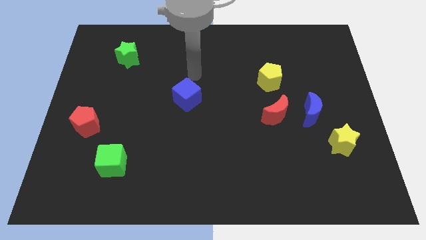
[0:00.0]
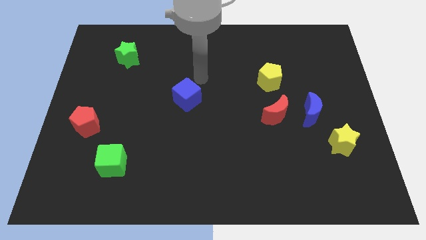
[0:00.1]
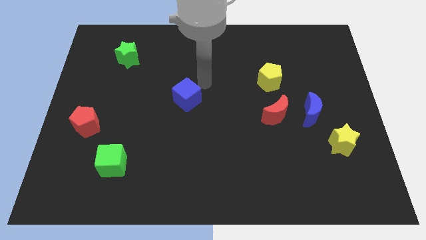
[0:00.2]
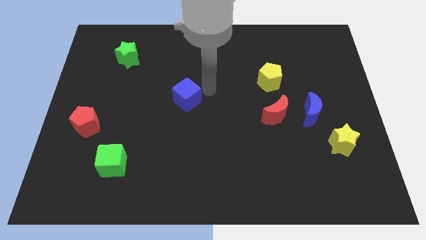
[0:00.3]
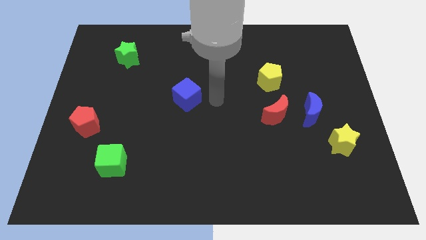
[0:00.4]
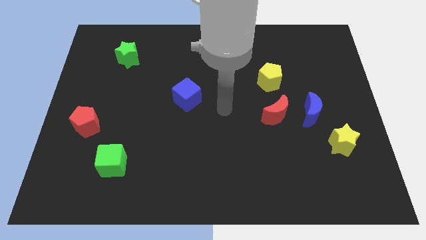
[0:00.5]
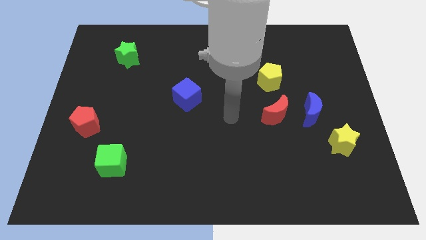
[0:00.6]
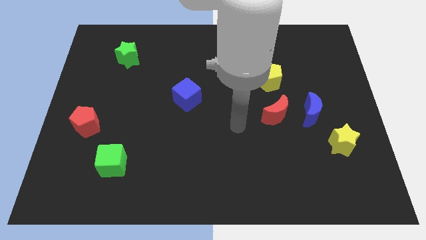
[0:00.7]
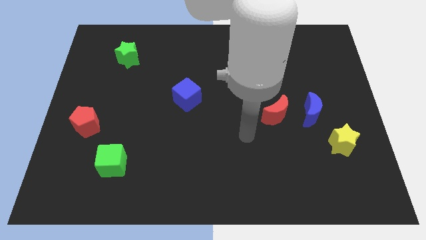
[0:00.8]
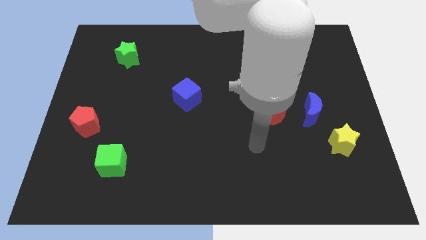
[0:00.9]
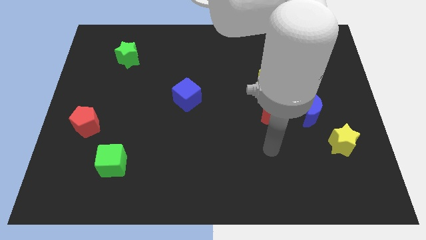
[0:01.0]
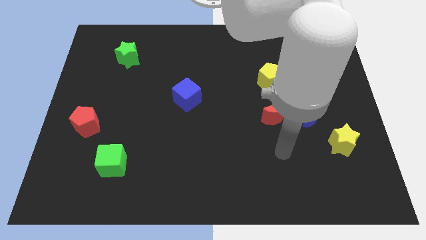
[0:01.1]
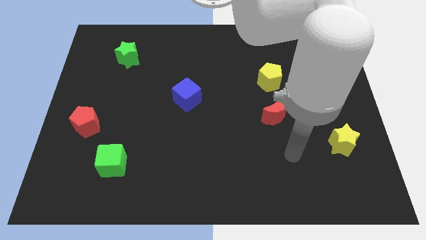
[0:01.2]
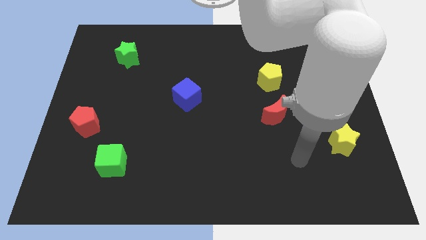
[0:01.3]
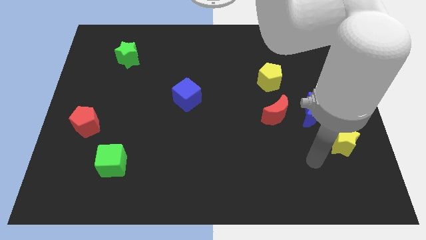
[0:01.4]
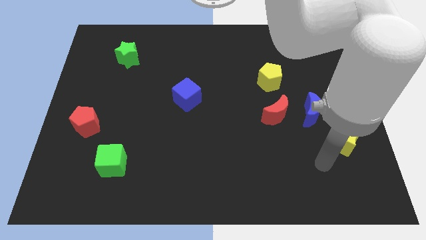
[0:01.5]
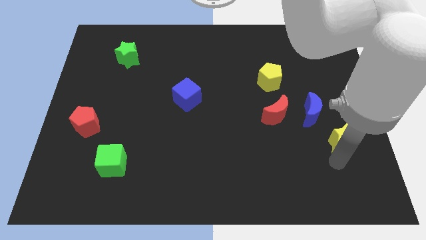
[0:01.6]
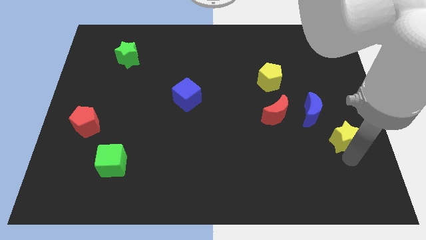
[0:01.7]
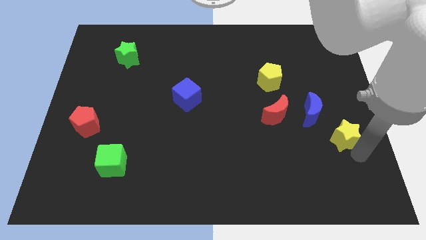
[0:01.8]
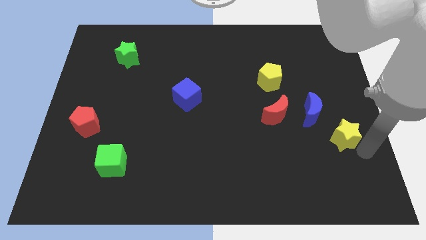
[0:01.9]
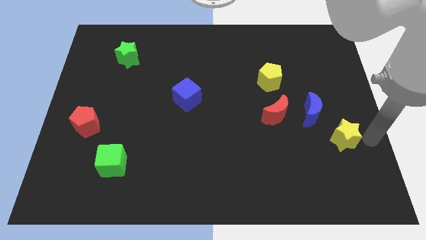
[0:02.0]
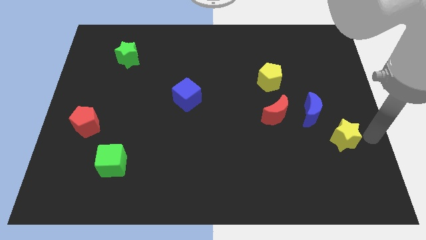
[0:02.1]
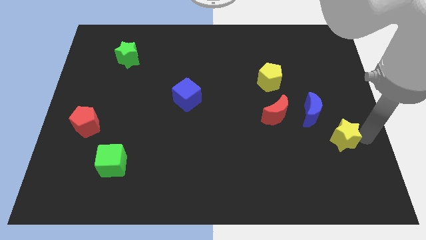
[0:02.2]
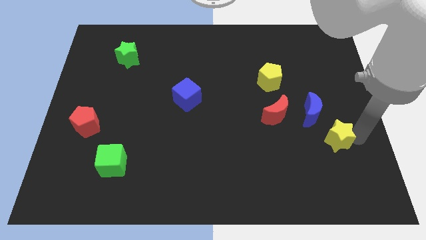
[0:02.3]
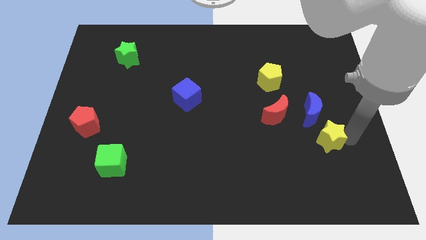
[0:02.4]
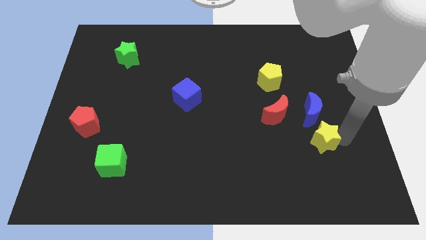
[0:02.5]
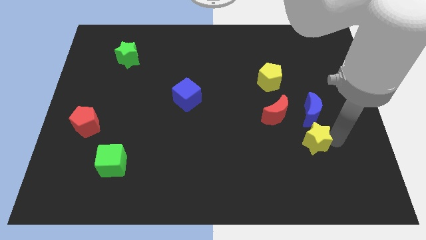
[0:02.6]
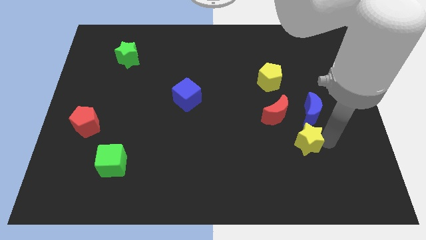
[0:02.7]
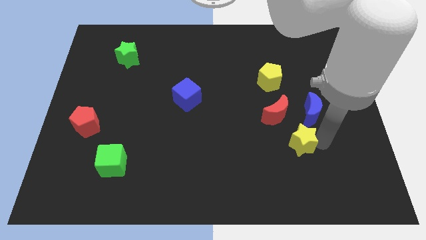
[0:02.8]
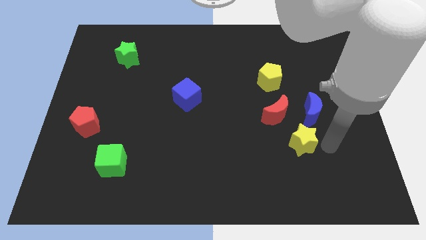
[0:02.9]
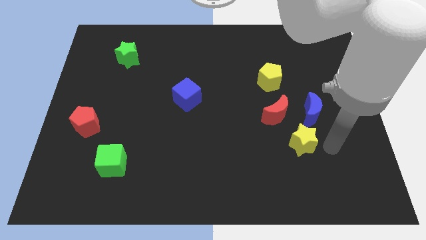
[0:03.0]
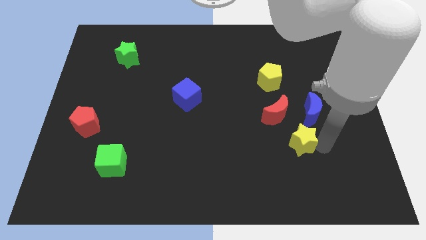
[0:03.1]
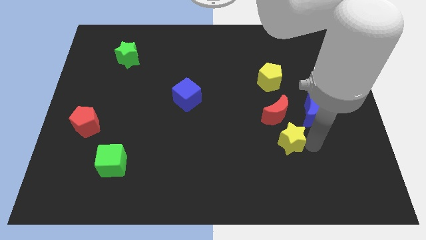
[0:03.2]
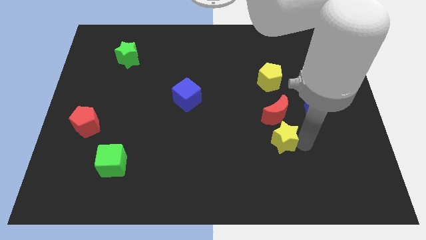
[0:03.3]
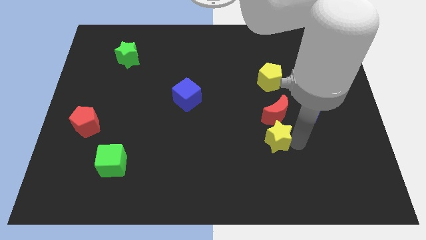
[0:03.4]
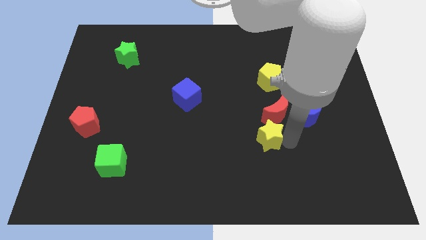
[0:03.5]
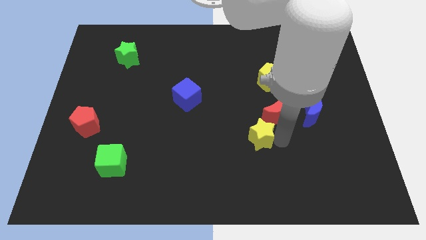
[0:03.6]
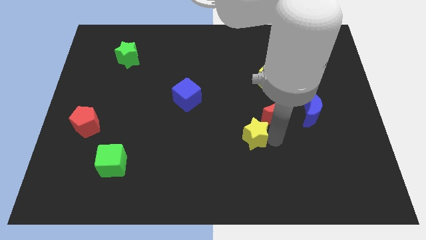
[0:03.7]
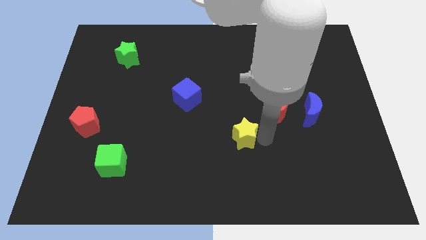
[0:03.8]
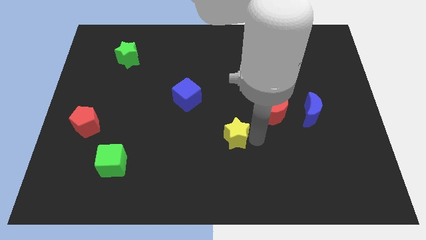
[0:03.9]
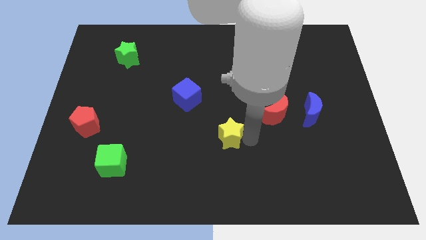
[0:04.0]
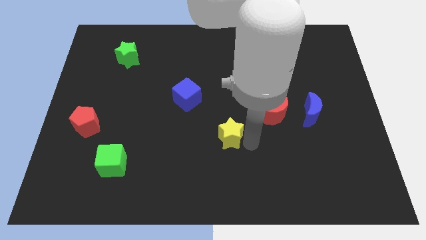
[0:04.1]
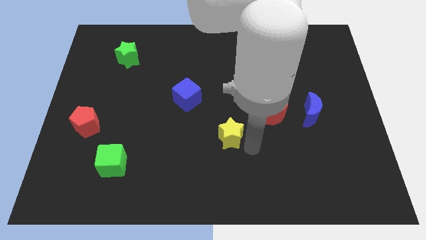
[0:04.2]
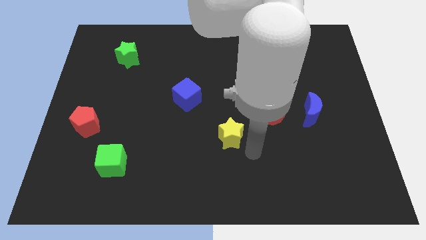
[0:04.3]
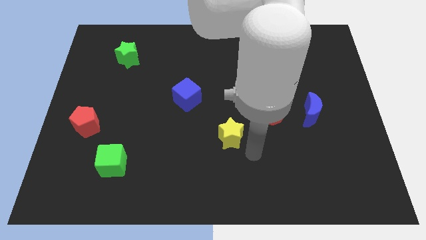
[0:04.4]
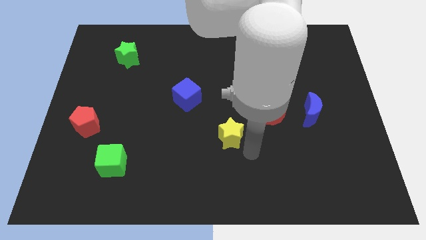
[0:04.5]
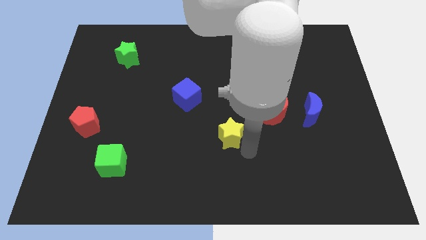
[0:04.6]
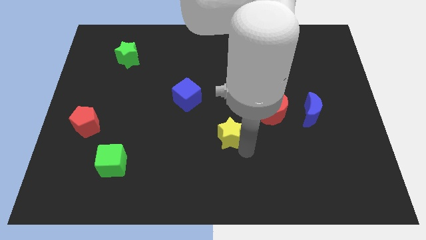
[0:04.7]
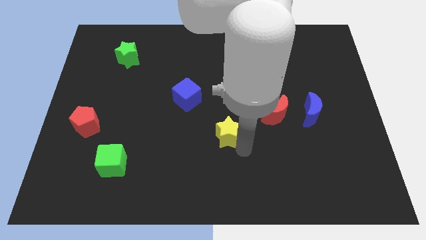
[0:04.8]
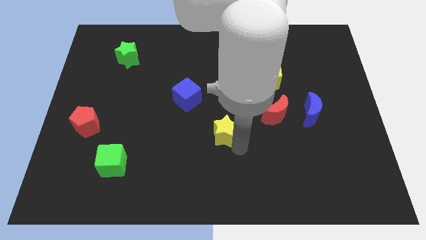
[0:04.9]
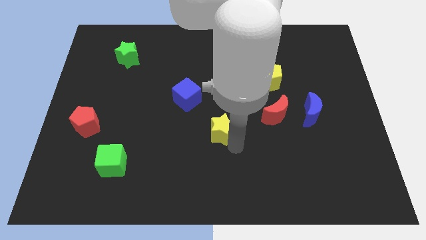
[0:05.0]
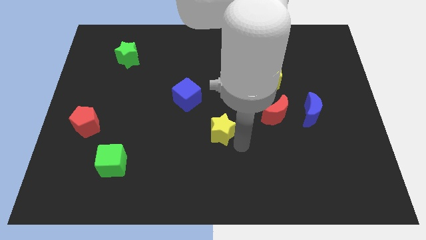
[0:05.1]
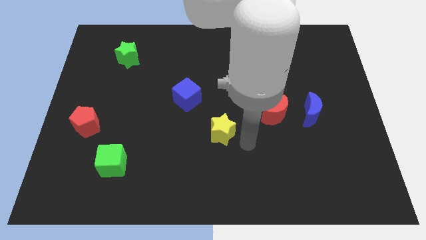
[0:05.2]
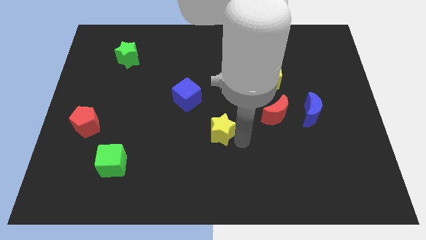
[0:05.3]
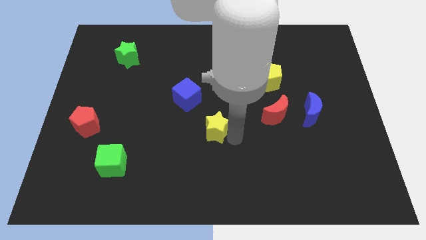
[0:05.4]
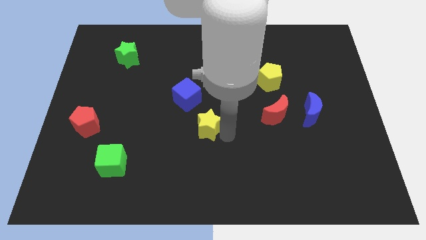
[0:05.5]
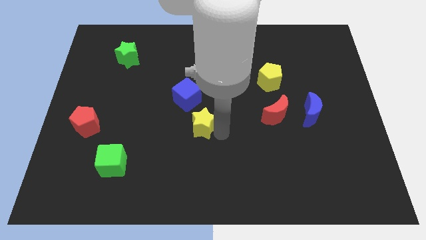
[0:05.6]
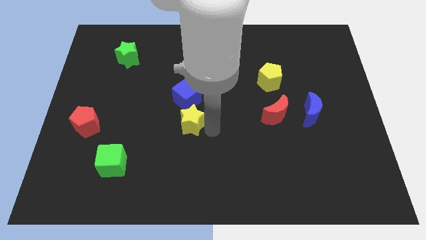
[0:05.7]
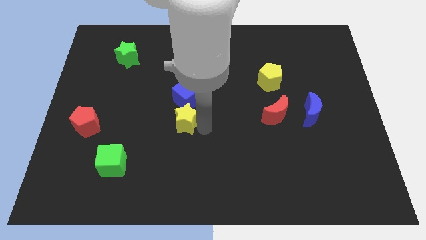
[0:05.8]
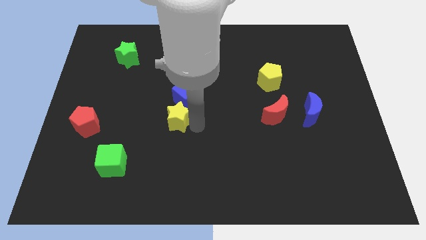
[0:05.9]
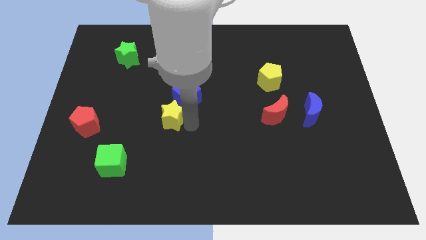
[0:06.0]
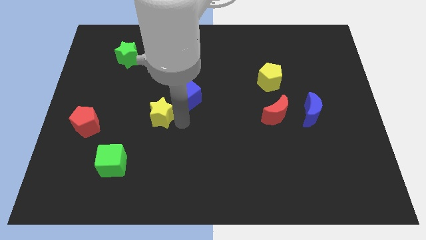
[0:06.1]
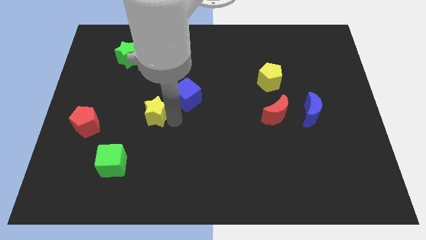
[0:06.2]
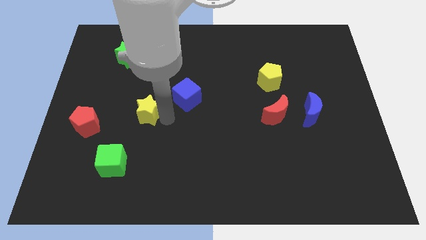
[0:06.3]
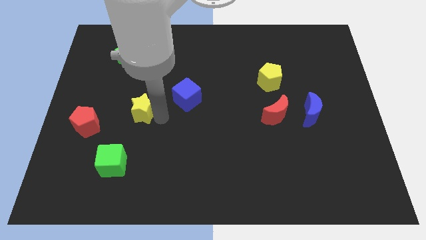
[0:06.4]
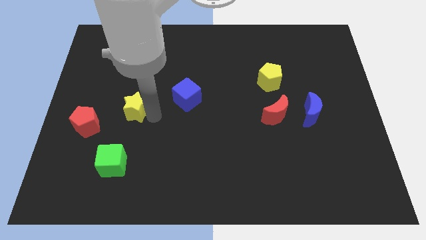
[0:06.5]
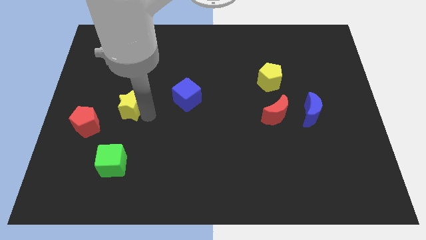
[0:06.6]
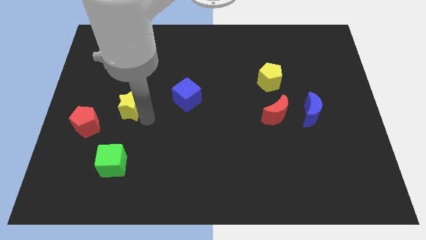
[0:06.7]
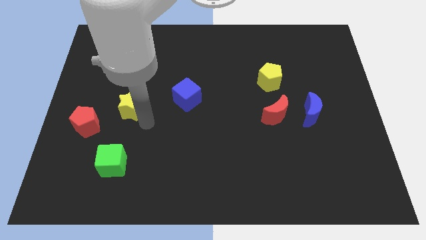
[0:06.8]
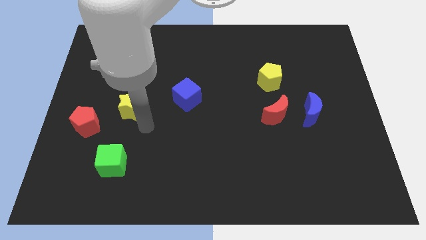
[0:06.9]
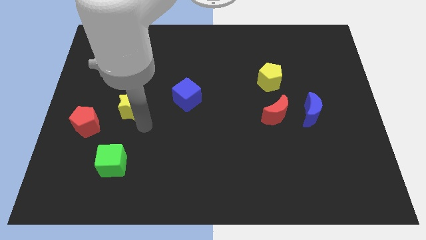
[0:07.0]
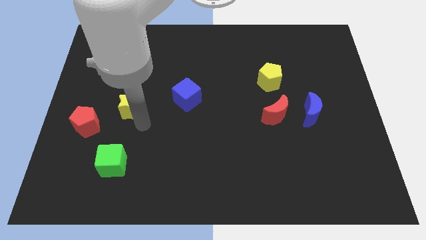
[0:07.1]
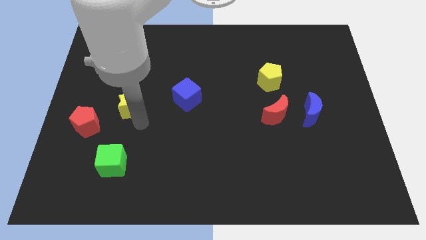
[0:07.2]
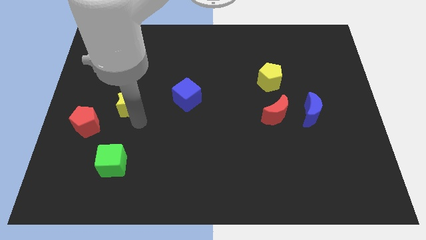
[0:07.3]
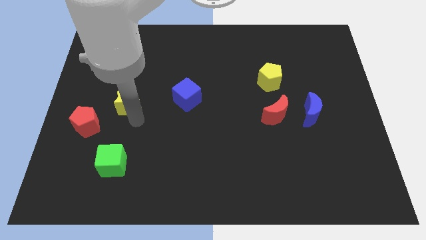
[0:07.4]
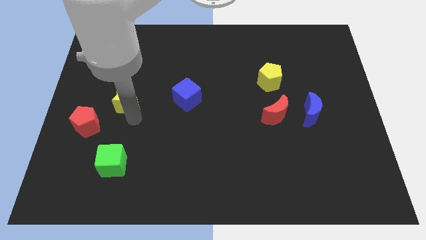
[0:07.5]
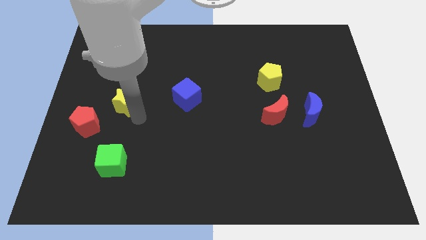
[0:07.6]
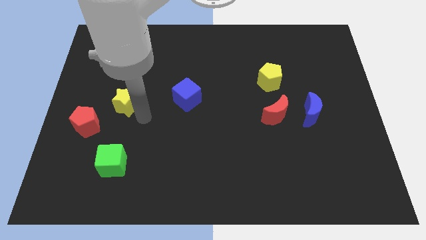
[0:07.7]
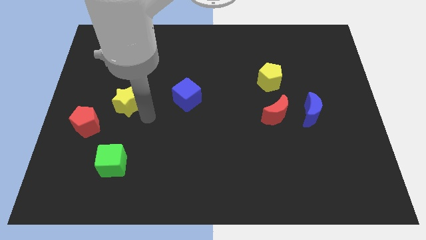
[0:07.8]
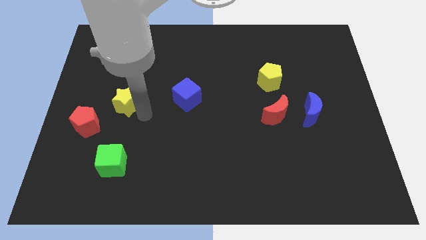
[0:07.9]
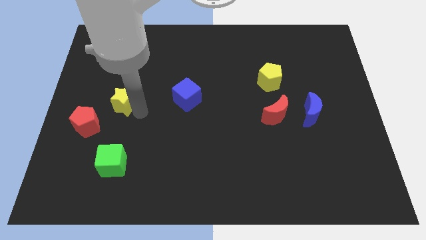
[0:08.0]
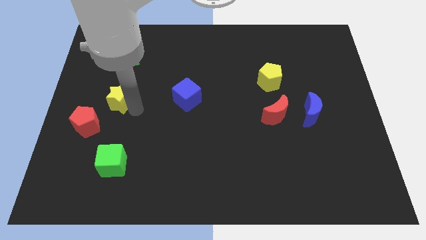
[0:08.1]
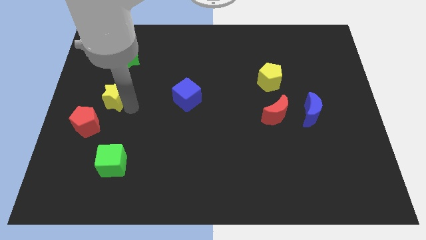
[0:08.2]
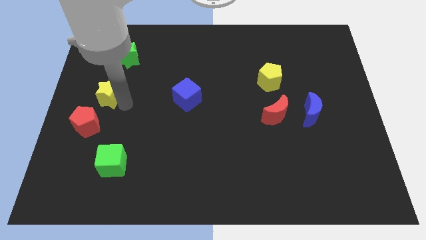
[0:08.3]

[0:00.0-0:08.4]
move the yellow star above the red pentagon
